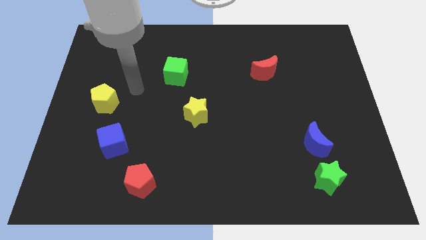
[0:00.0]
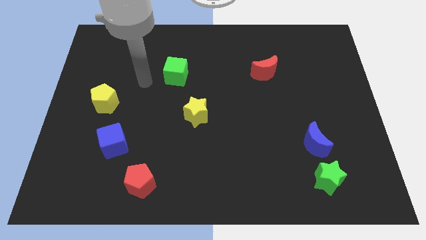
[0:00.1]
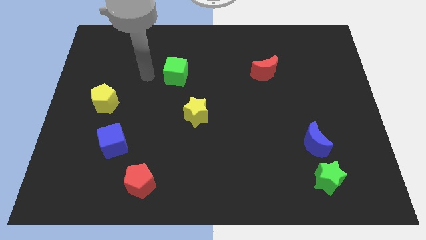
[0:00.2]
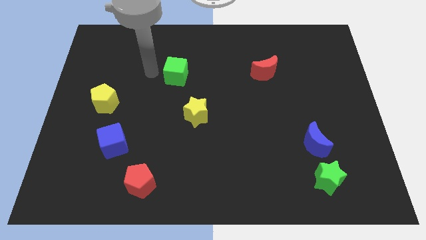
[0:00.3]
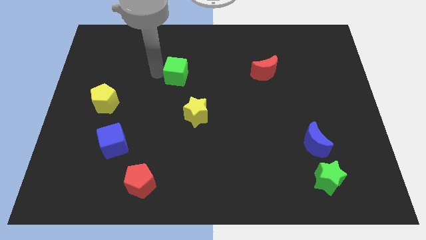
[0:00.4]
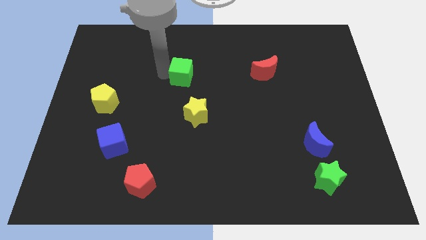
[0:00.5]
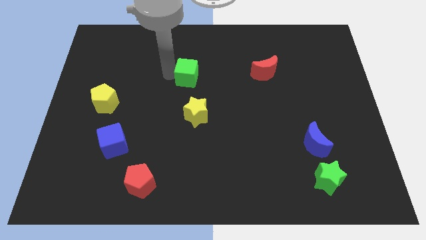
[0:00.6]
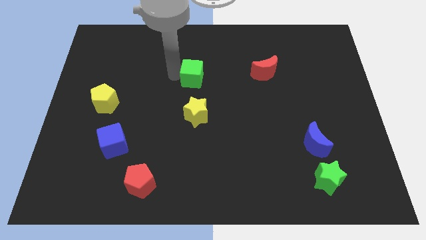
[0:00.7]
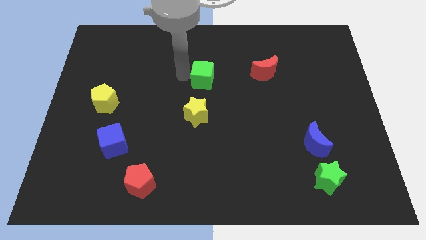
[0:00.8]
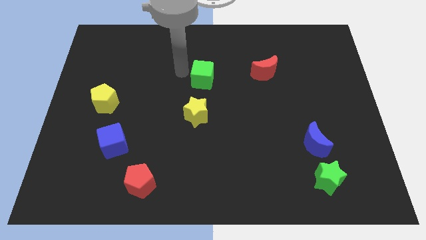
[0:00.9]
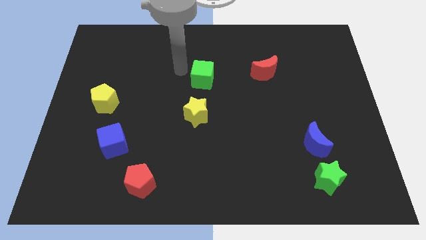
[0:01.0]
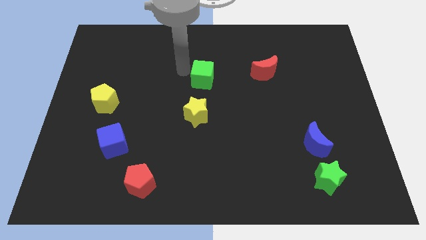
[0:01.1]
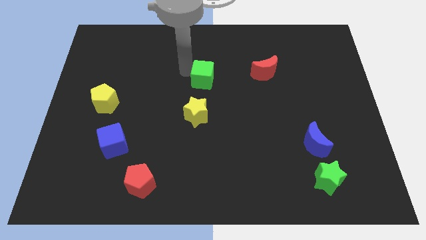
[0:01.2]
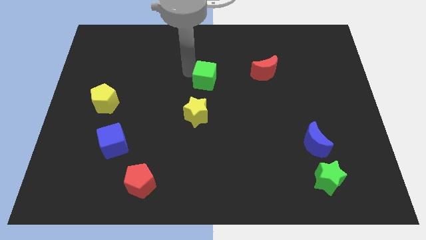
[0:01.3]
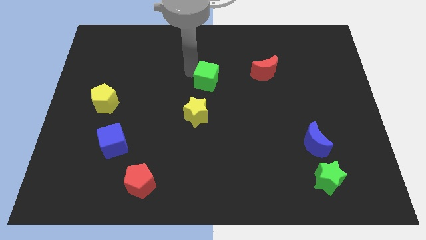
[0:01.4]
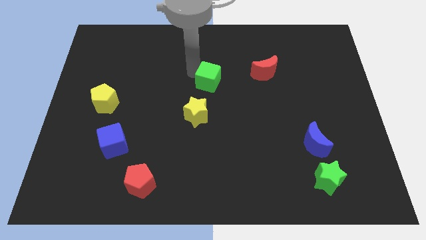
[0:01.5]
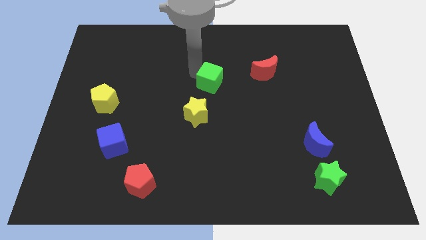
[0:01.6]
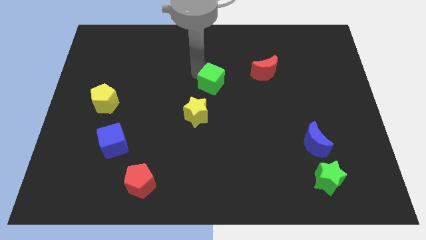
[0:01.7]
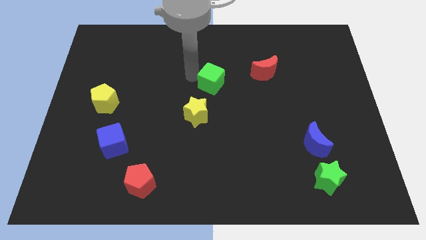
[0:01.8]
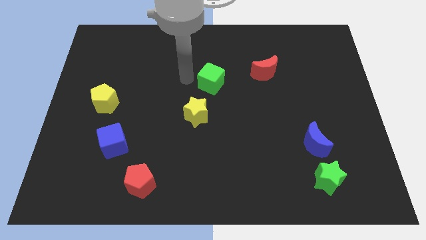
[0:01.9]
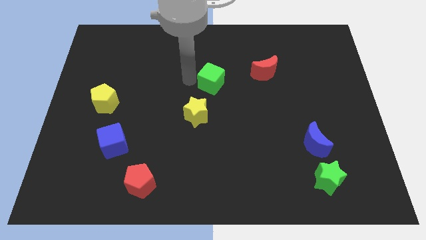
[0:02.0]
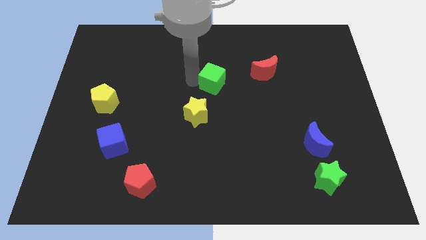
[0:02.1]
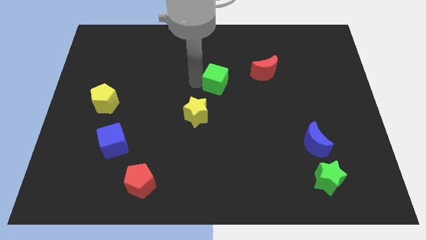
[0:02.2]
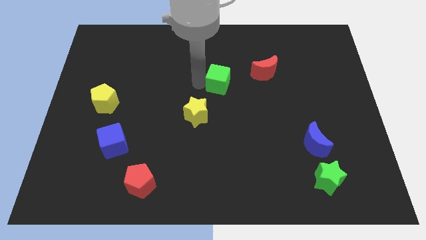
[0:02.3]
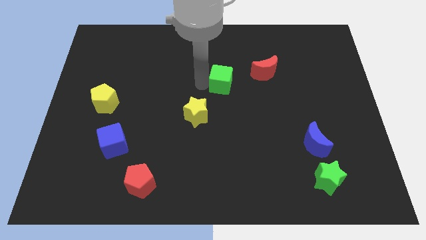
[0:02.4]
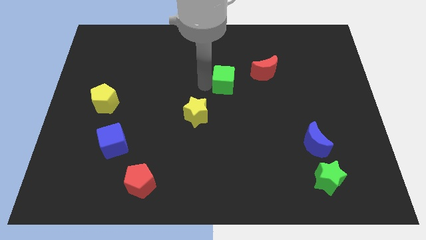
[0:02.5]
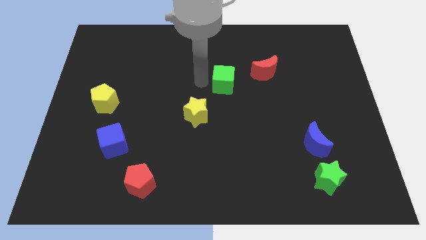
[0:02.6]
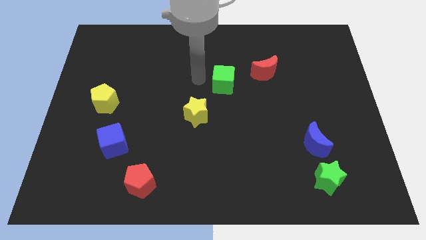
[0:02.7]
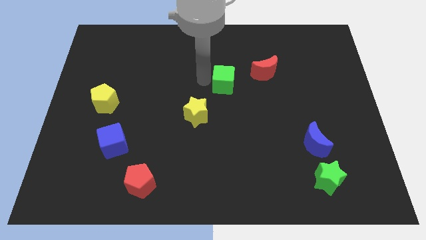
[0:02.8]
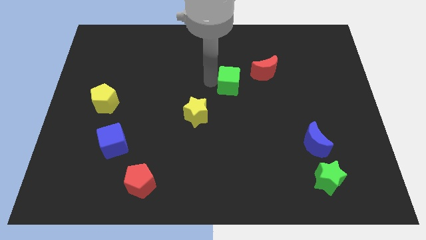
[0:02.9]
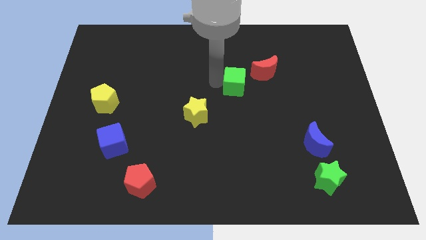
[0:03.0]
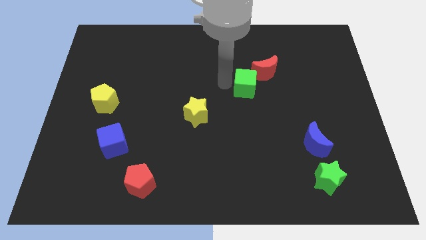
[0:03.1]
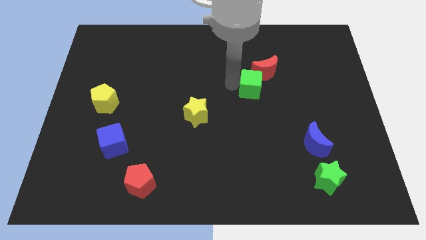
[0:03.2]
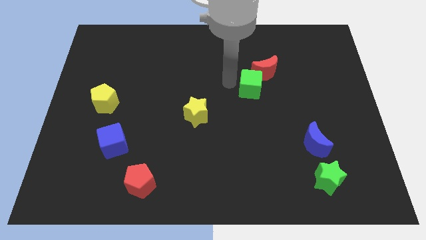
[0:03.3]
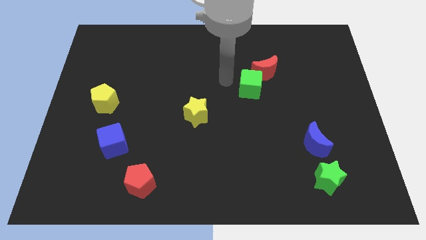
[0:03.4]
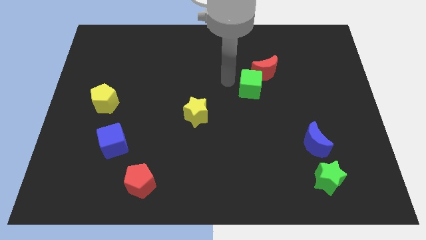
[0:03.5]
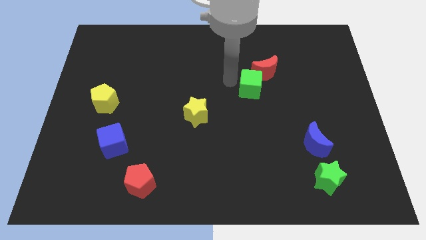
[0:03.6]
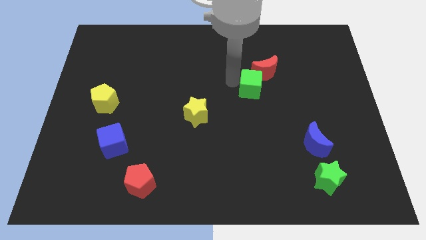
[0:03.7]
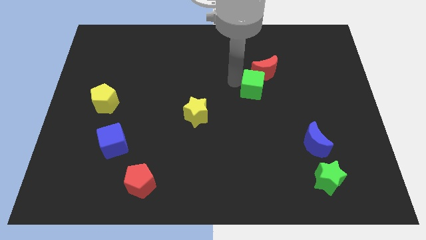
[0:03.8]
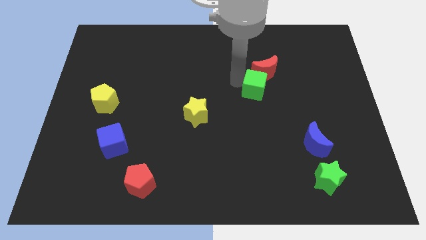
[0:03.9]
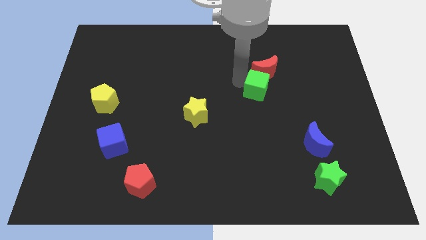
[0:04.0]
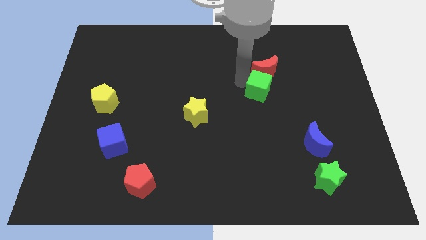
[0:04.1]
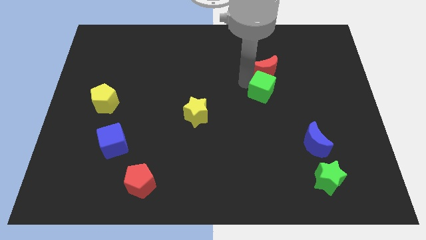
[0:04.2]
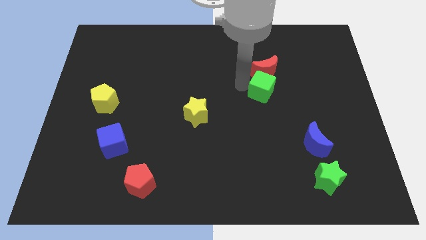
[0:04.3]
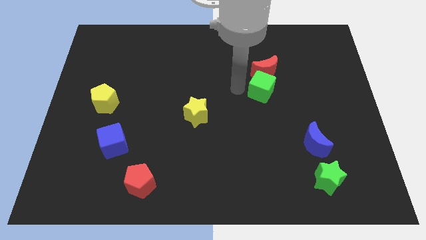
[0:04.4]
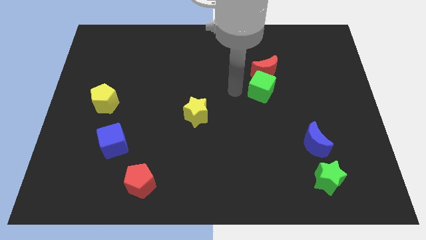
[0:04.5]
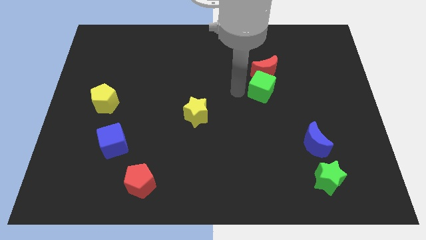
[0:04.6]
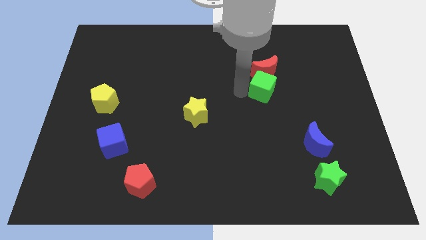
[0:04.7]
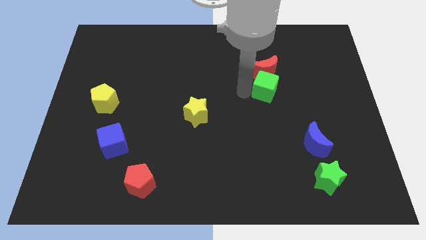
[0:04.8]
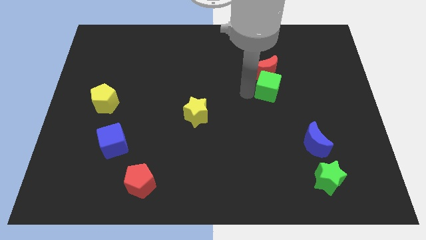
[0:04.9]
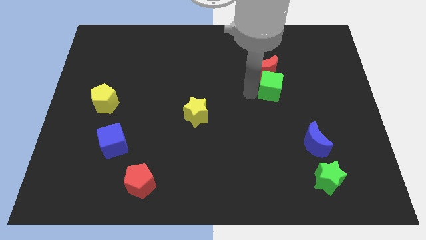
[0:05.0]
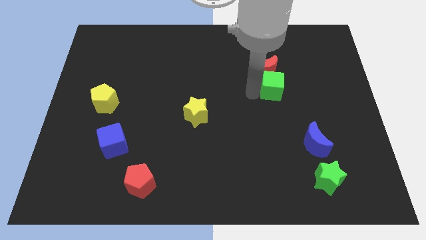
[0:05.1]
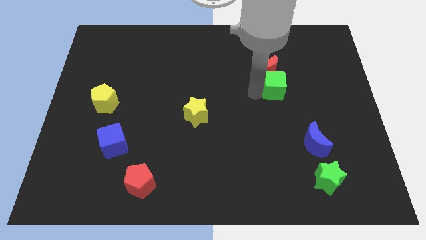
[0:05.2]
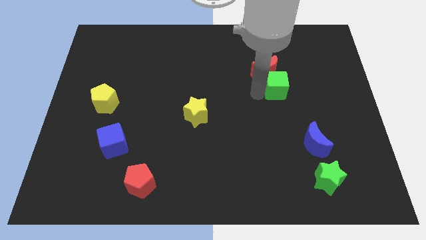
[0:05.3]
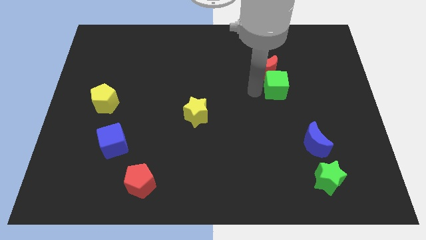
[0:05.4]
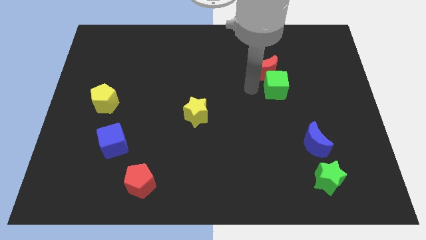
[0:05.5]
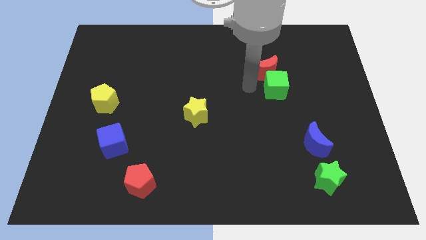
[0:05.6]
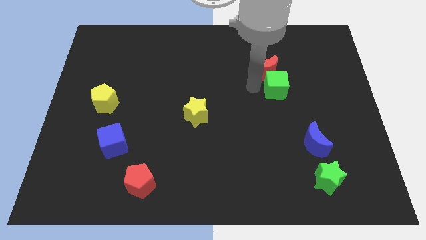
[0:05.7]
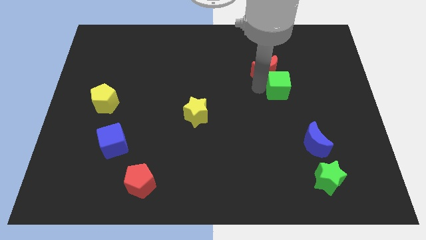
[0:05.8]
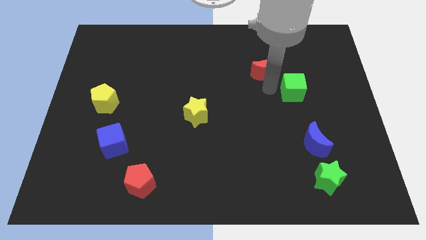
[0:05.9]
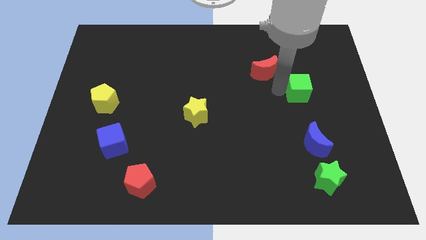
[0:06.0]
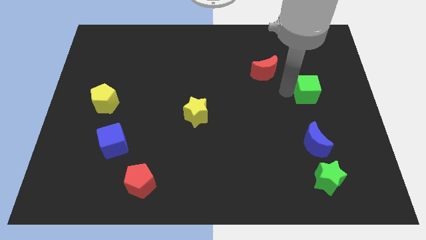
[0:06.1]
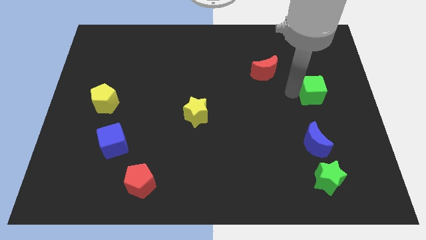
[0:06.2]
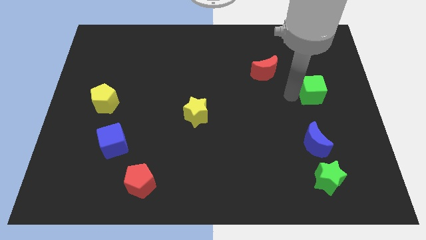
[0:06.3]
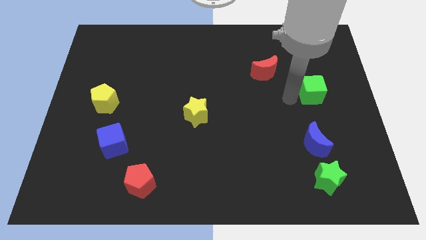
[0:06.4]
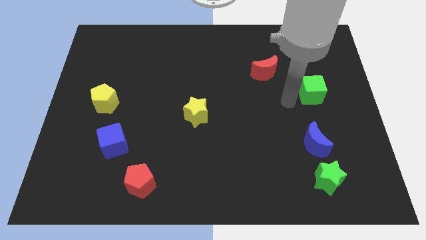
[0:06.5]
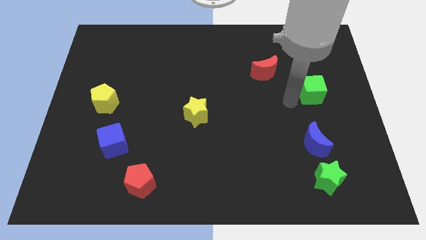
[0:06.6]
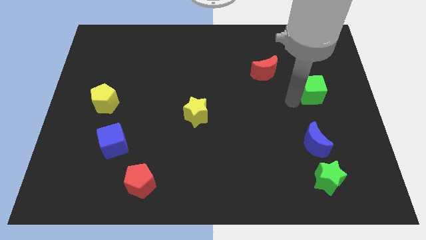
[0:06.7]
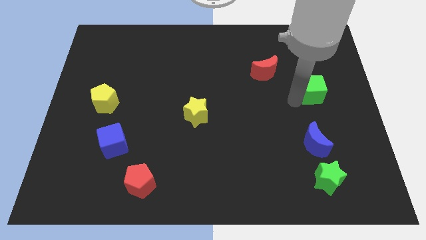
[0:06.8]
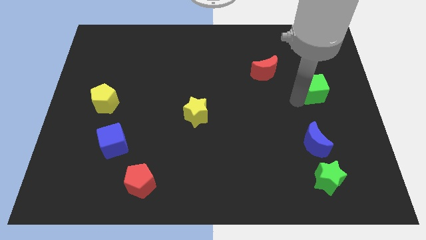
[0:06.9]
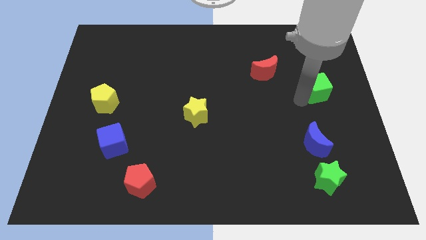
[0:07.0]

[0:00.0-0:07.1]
slide the green cube to the center right
